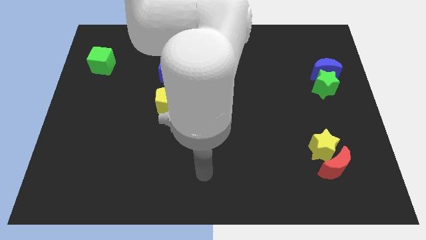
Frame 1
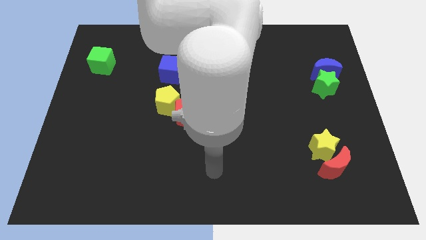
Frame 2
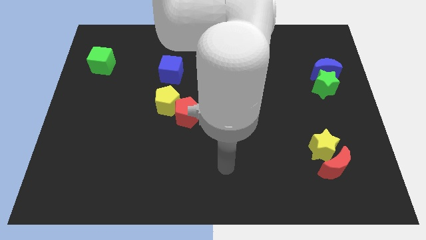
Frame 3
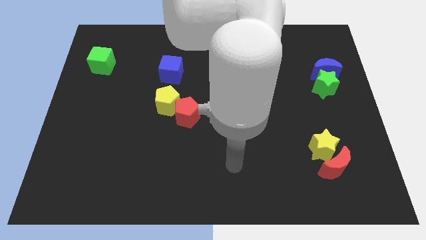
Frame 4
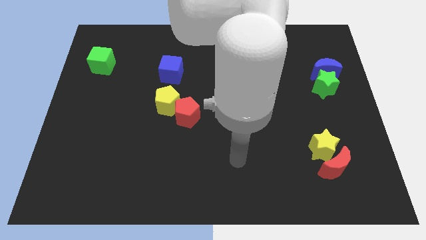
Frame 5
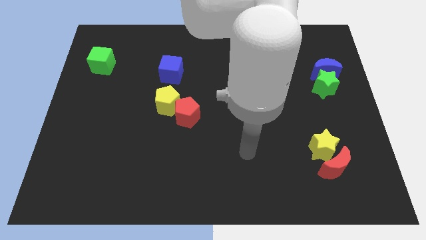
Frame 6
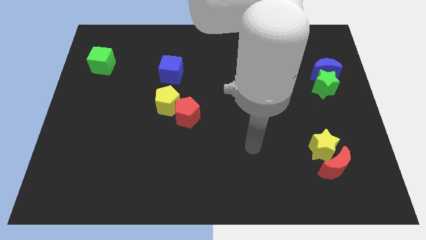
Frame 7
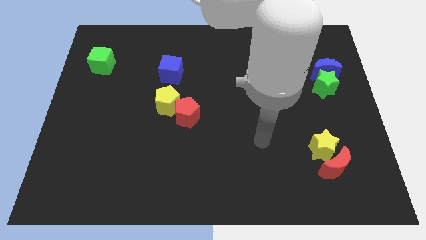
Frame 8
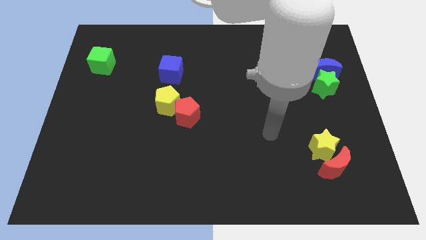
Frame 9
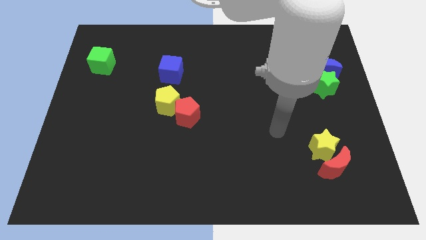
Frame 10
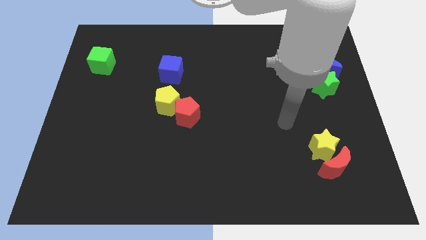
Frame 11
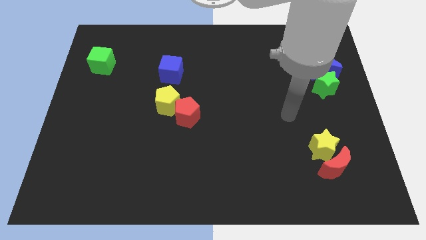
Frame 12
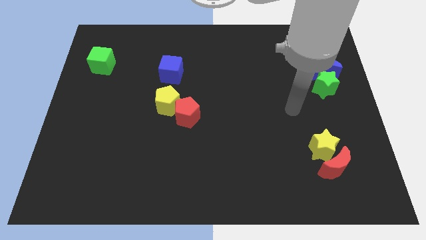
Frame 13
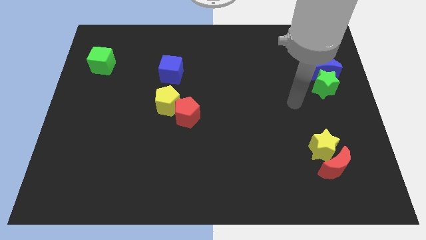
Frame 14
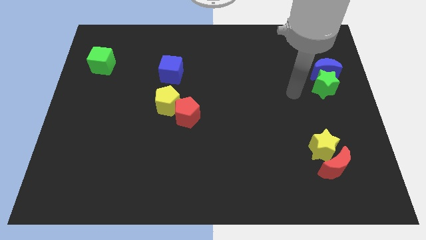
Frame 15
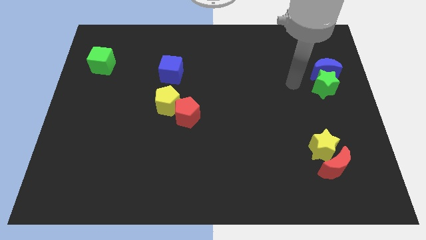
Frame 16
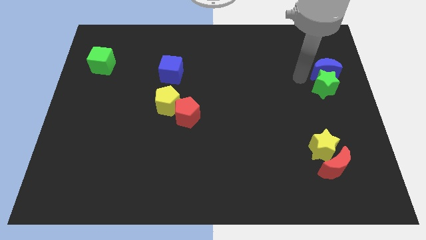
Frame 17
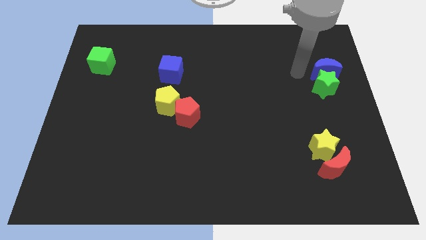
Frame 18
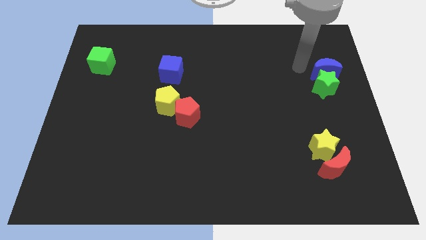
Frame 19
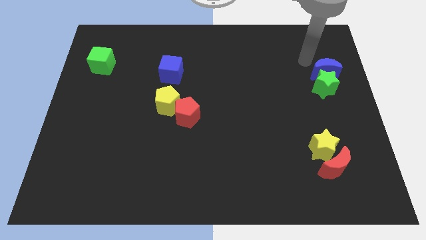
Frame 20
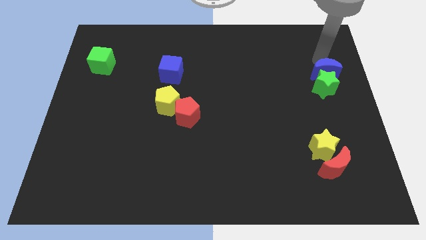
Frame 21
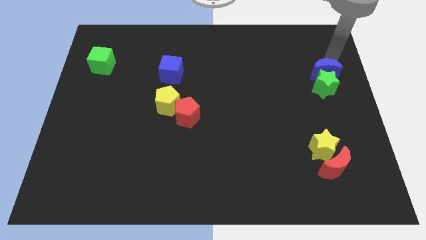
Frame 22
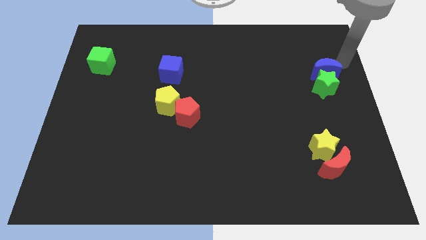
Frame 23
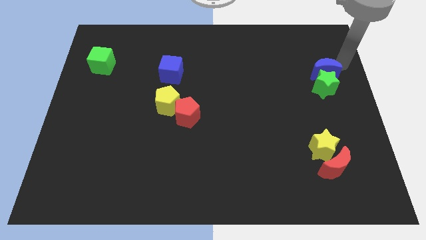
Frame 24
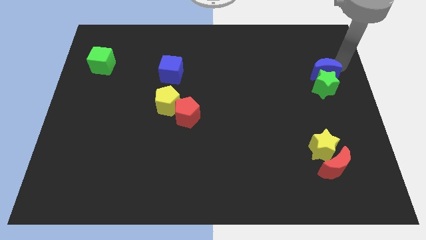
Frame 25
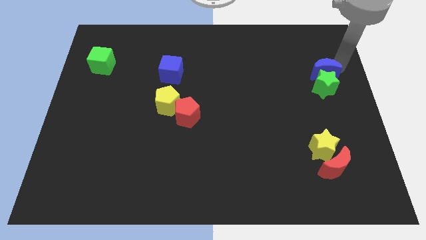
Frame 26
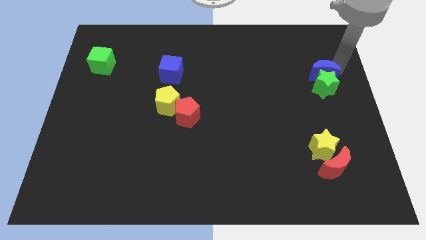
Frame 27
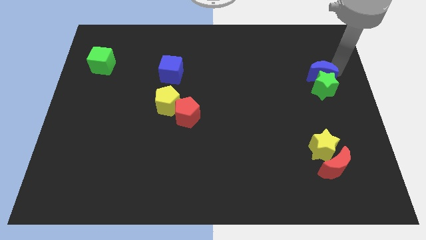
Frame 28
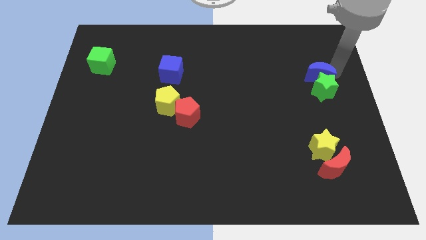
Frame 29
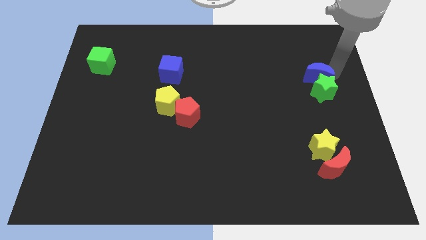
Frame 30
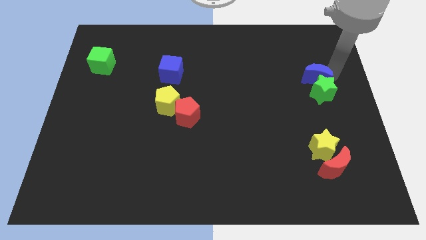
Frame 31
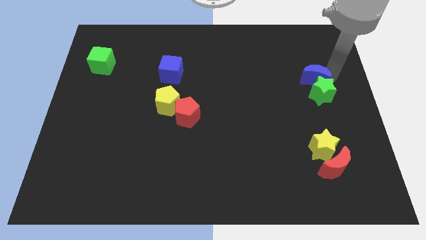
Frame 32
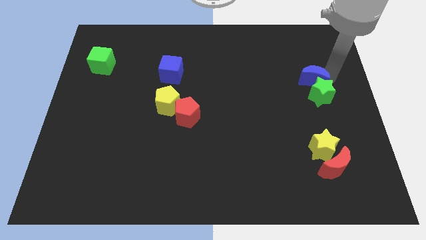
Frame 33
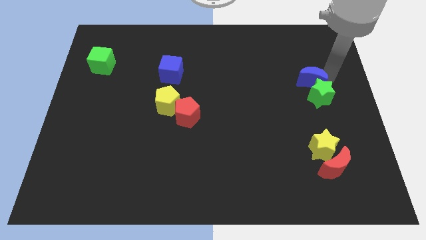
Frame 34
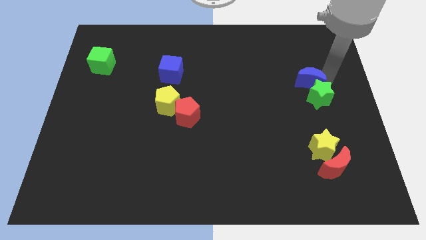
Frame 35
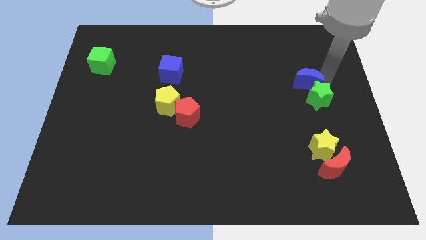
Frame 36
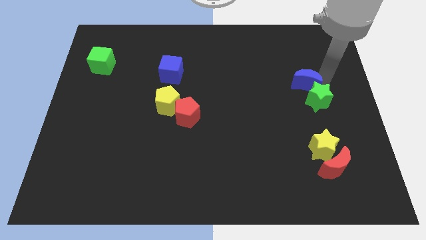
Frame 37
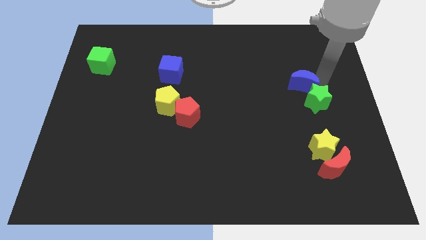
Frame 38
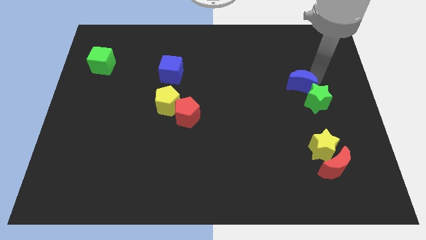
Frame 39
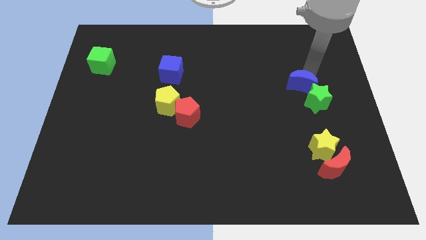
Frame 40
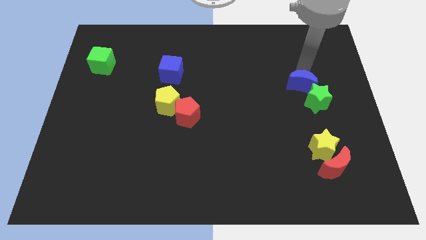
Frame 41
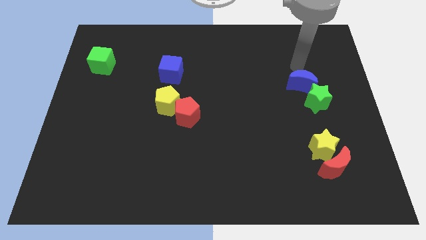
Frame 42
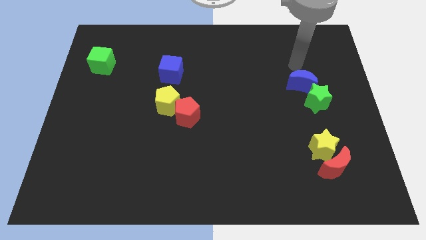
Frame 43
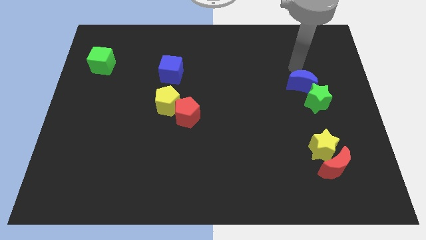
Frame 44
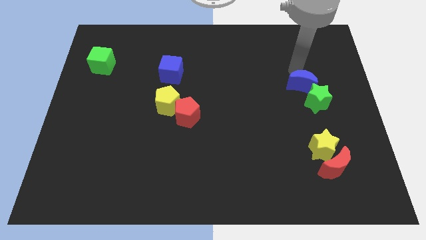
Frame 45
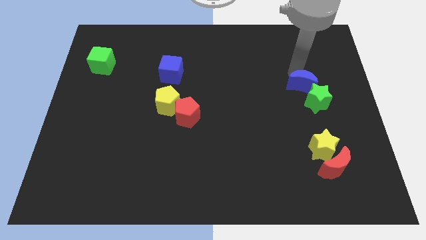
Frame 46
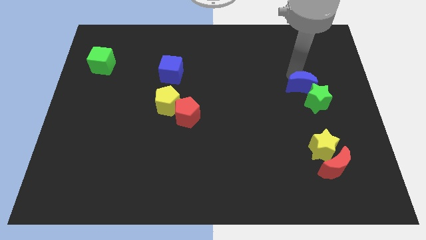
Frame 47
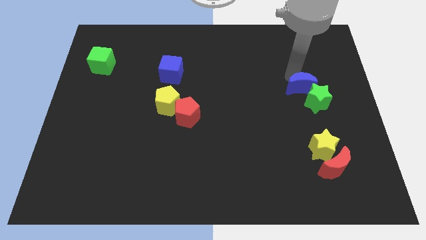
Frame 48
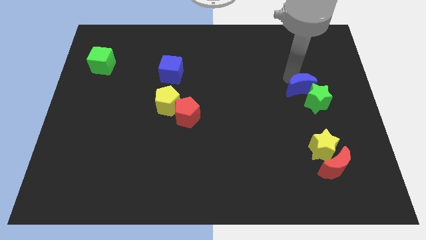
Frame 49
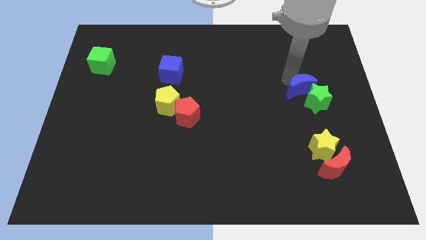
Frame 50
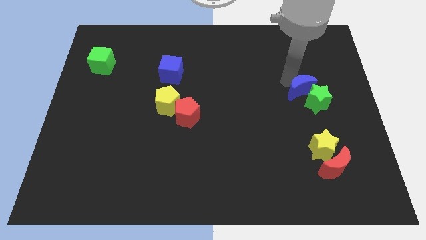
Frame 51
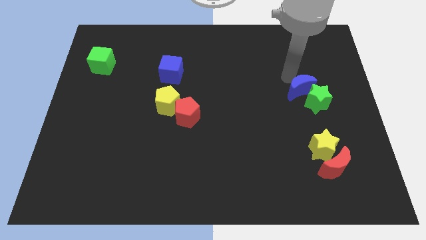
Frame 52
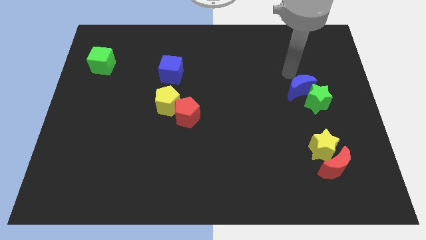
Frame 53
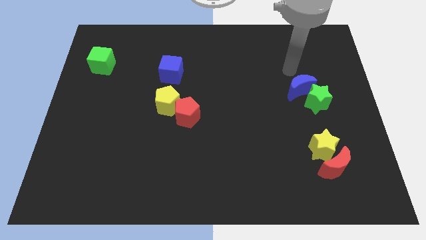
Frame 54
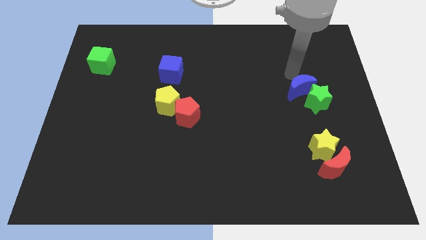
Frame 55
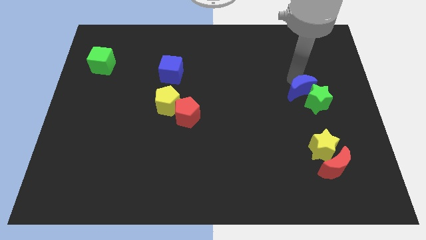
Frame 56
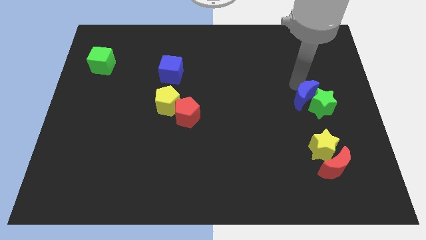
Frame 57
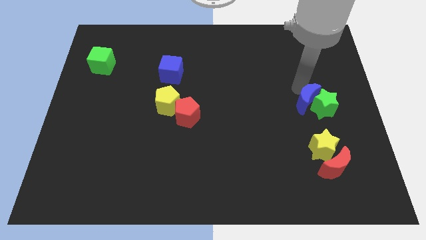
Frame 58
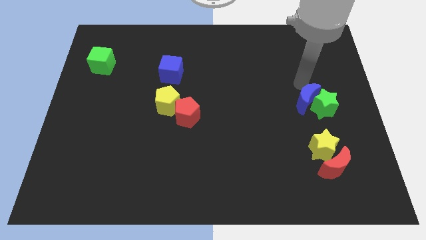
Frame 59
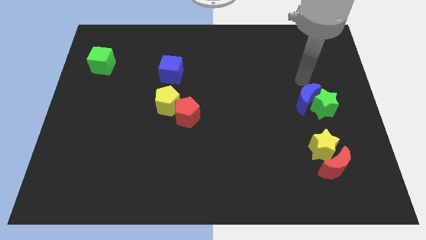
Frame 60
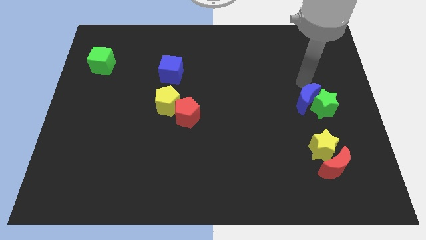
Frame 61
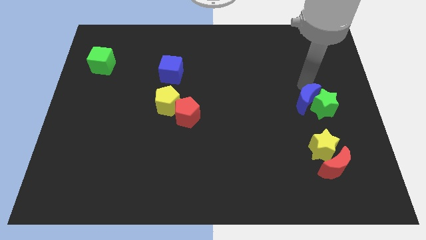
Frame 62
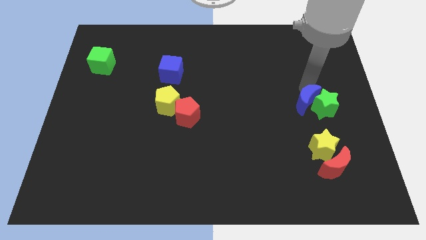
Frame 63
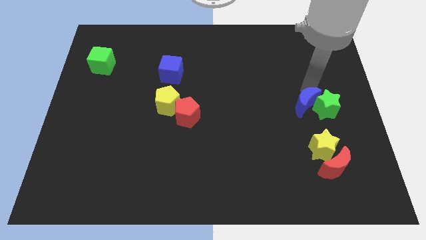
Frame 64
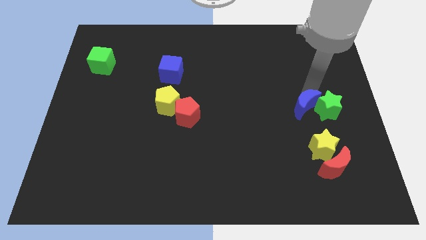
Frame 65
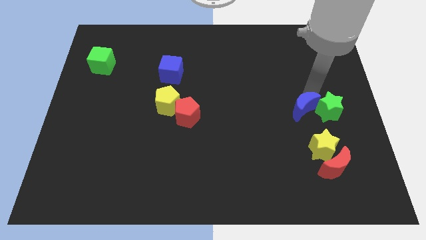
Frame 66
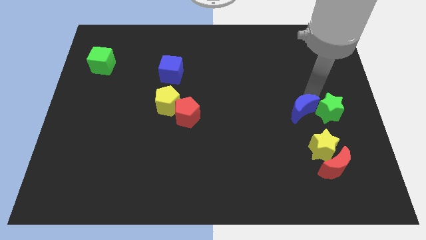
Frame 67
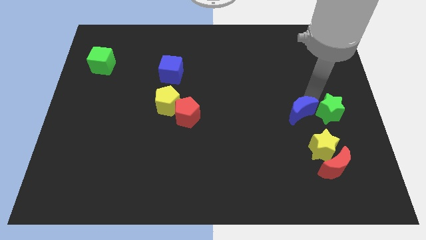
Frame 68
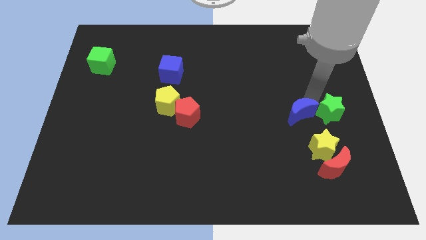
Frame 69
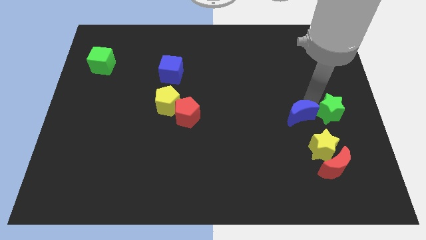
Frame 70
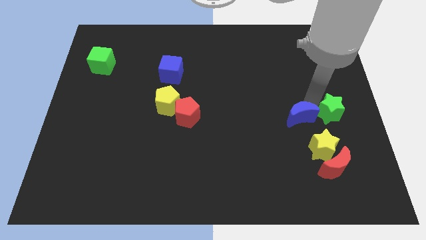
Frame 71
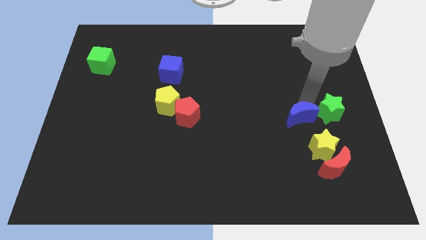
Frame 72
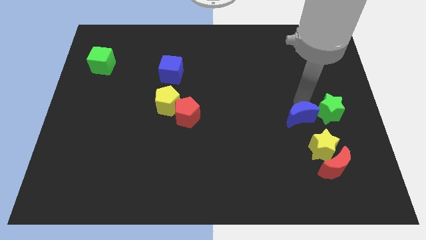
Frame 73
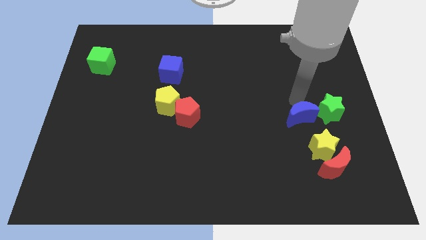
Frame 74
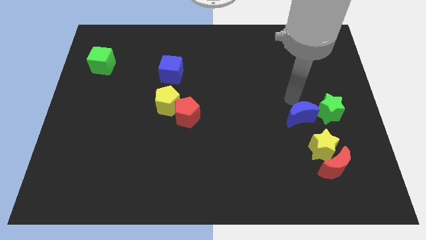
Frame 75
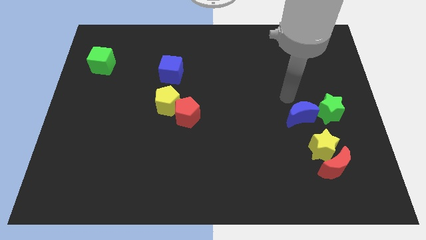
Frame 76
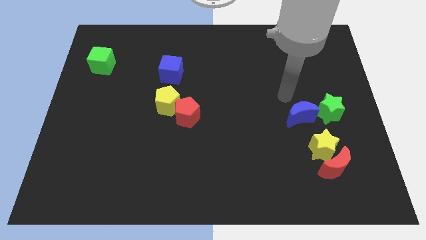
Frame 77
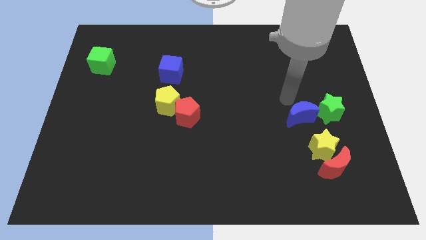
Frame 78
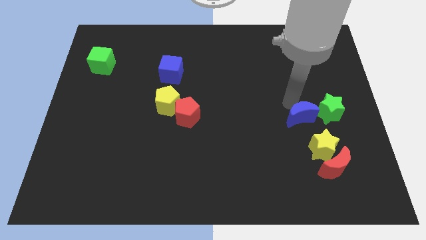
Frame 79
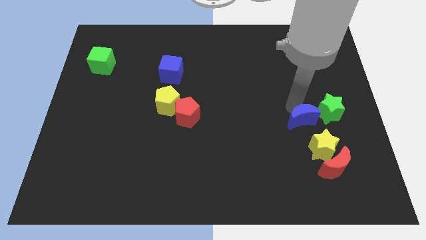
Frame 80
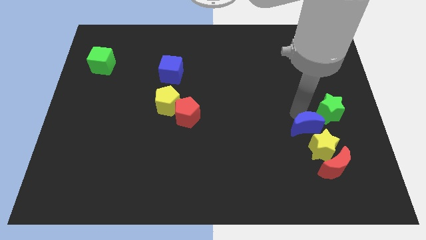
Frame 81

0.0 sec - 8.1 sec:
move the blue moon next to the yellow star
